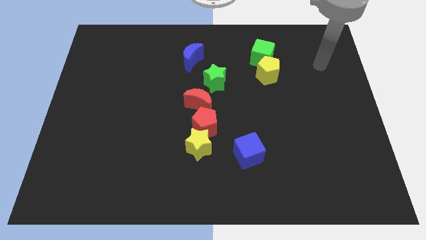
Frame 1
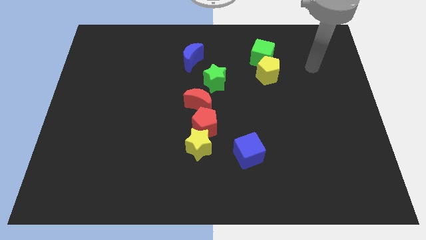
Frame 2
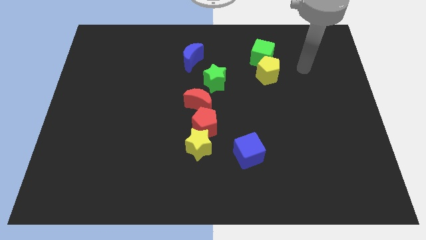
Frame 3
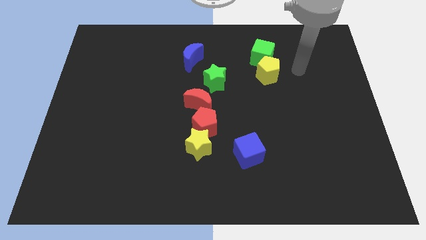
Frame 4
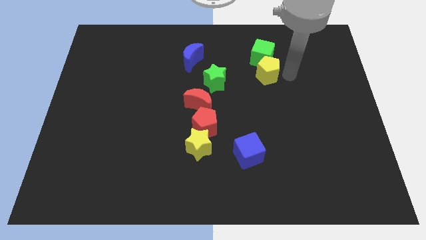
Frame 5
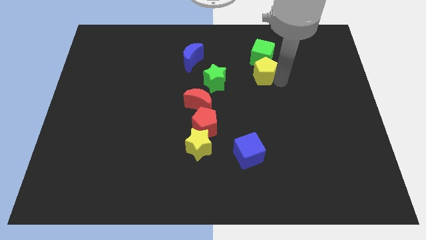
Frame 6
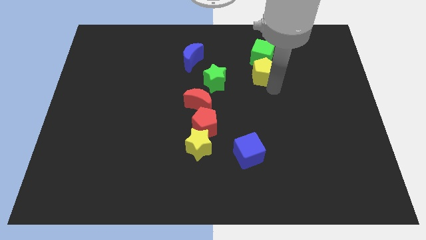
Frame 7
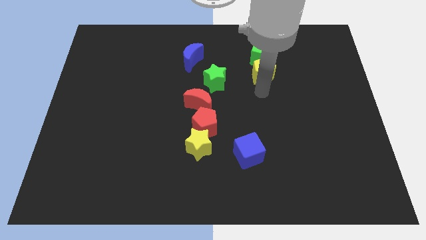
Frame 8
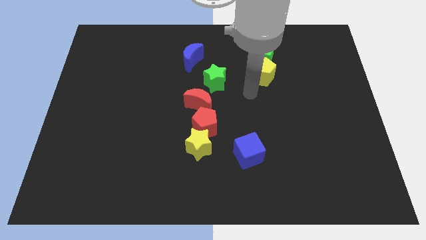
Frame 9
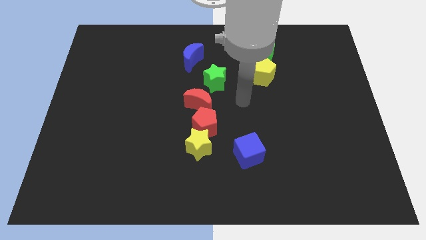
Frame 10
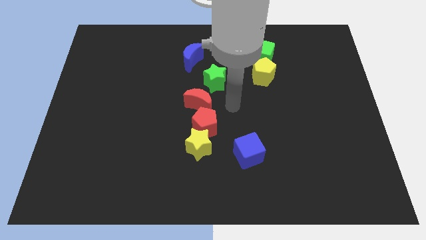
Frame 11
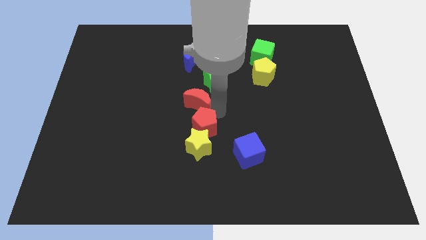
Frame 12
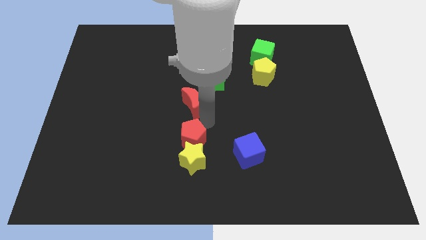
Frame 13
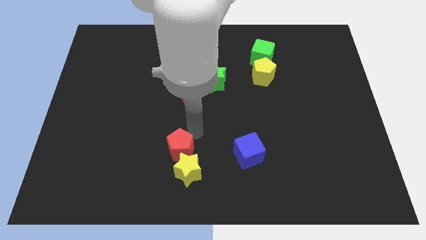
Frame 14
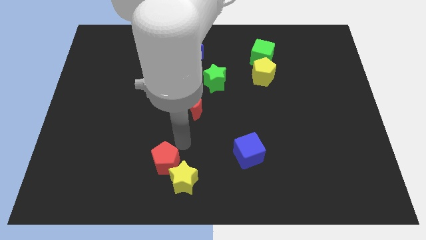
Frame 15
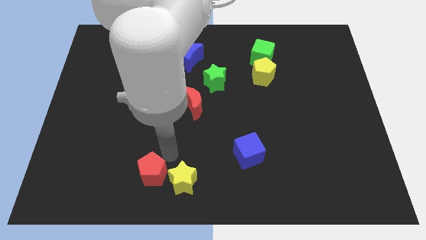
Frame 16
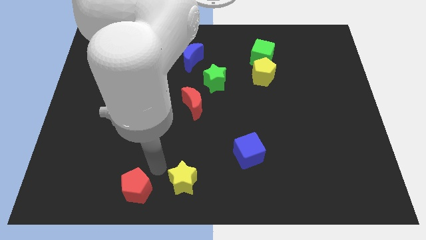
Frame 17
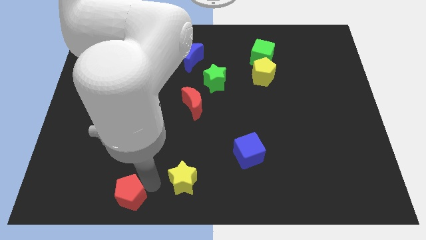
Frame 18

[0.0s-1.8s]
move the yellow star away from the red pentagon

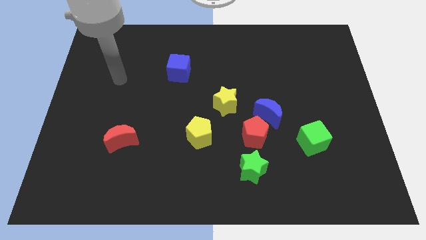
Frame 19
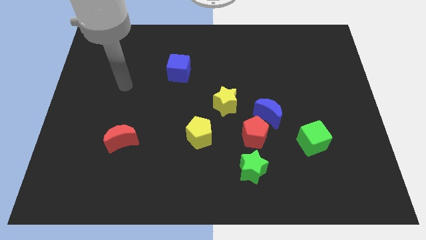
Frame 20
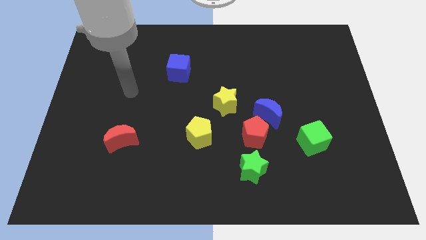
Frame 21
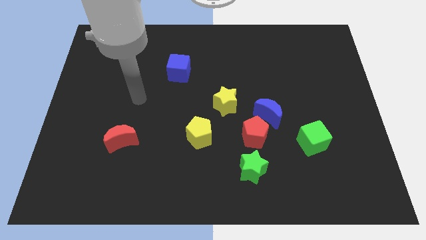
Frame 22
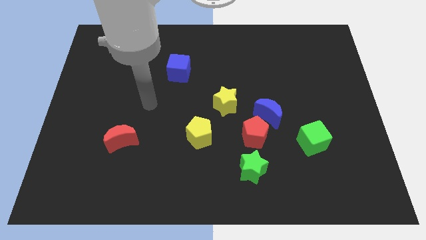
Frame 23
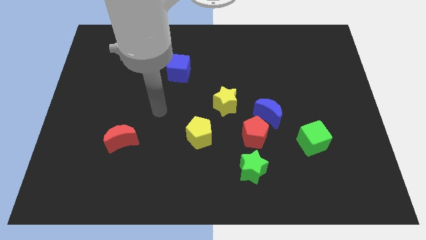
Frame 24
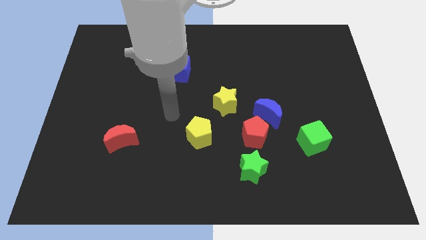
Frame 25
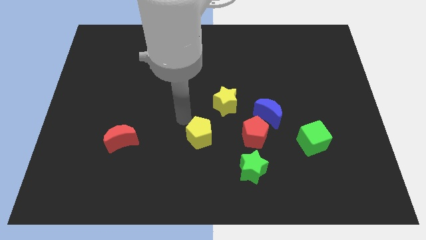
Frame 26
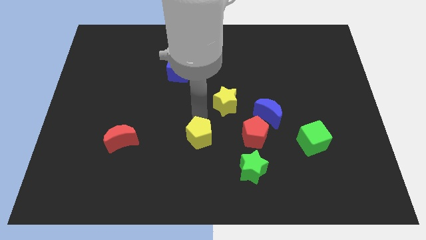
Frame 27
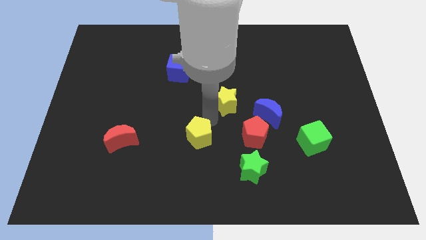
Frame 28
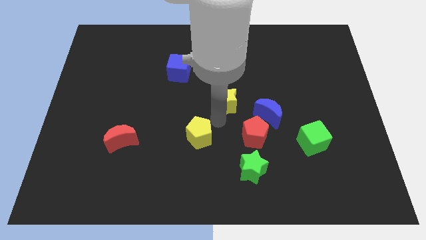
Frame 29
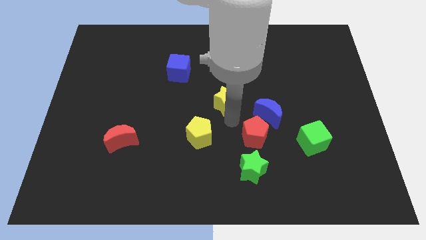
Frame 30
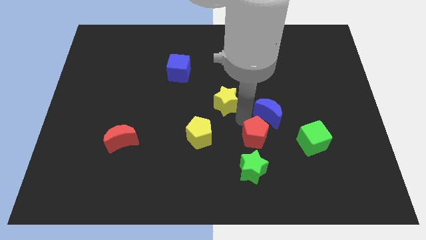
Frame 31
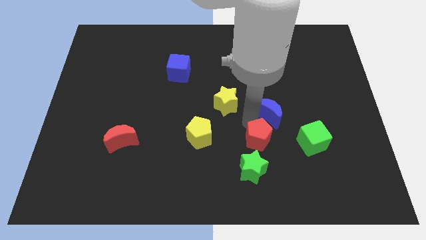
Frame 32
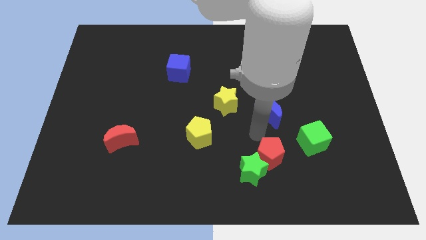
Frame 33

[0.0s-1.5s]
pull the blue moon apart from the red pentagon

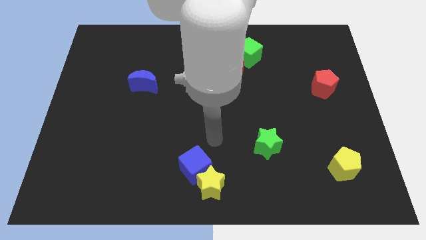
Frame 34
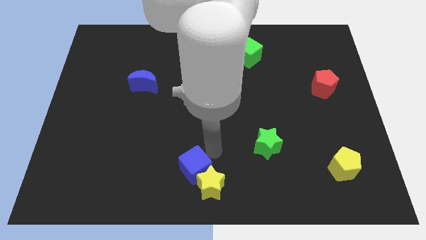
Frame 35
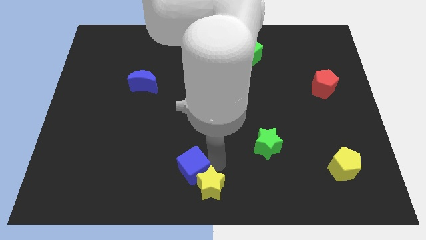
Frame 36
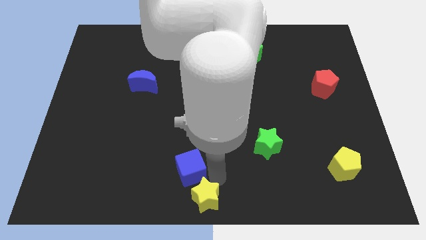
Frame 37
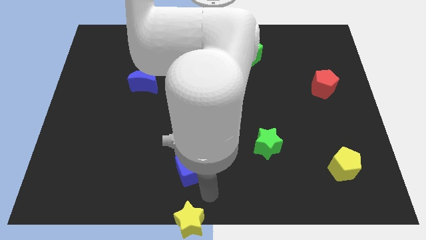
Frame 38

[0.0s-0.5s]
pull the blue cube apart from the yellow star

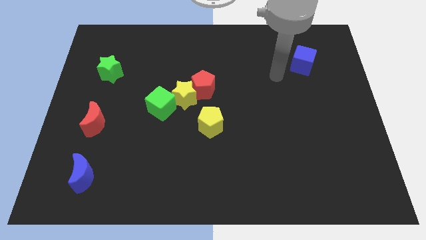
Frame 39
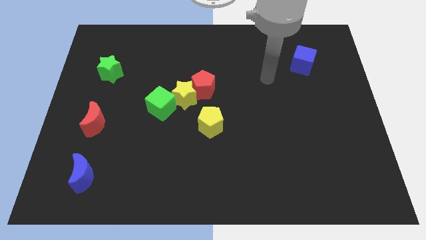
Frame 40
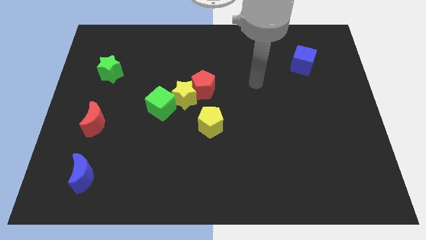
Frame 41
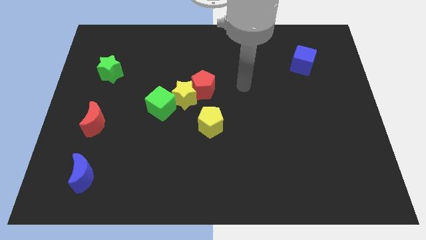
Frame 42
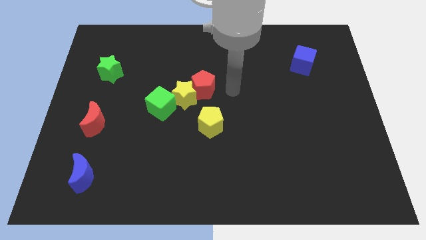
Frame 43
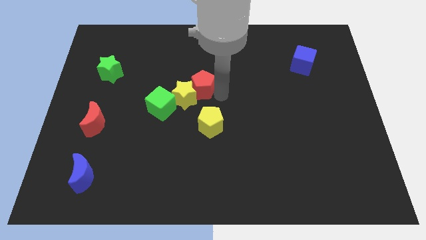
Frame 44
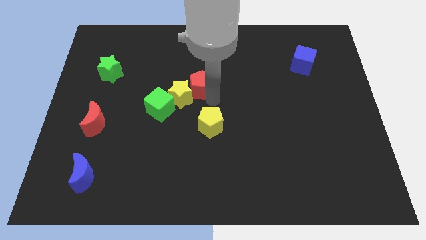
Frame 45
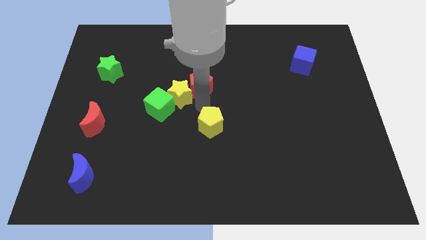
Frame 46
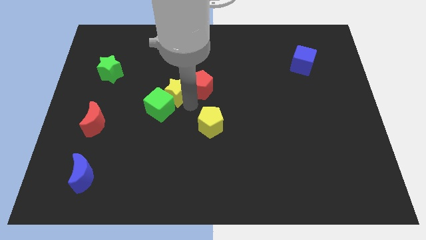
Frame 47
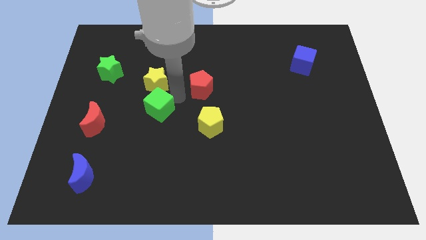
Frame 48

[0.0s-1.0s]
separate the red pentagon from the yellow star

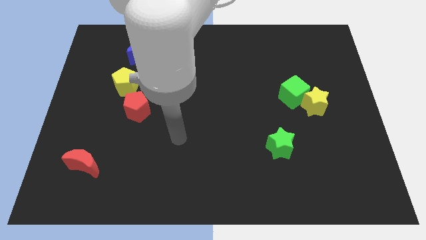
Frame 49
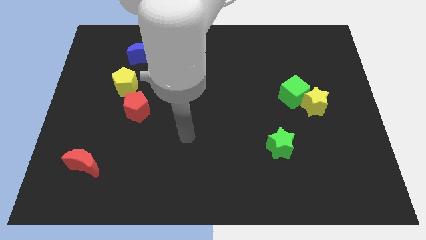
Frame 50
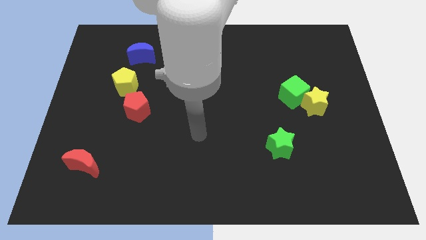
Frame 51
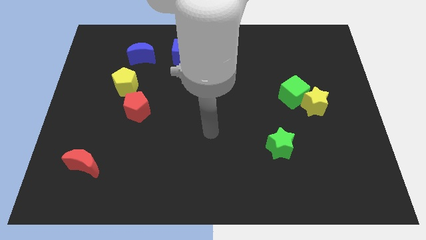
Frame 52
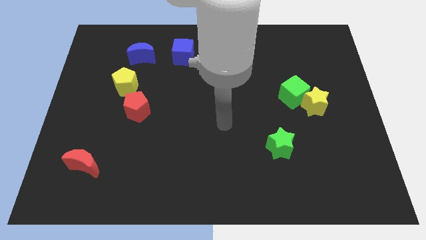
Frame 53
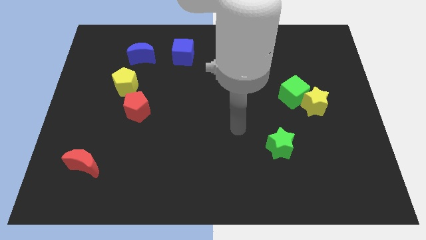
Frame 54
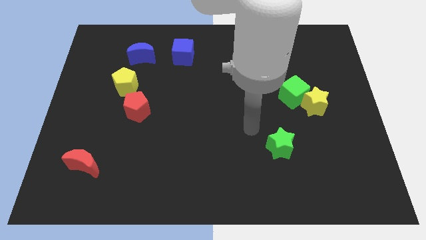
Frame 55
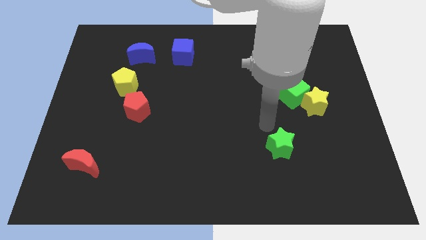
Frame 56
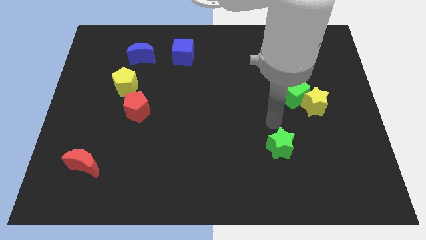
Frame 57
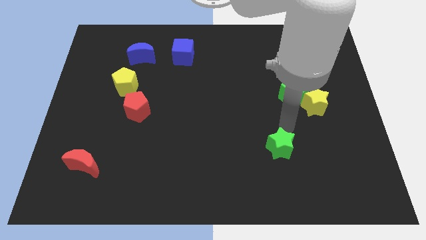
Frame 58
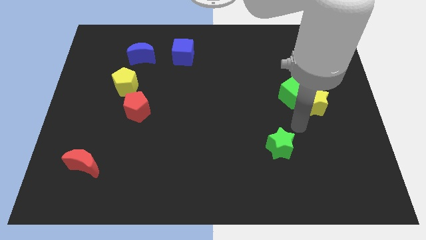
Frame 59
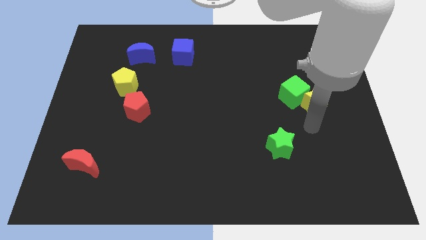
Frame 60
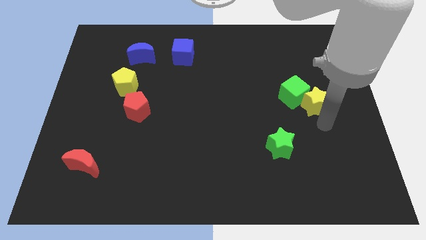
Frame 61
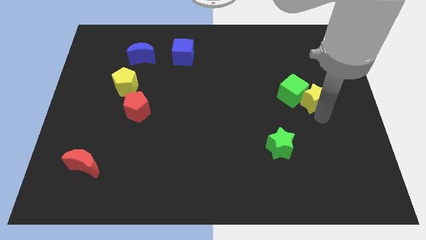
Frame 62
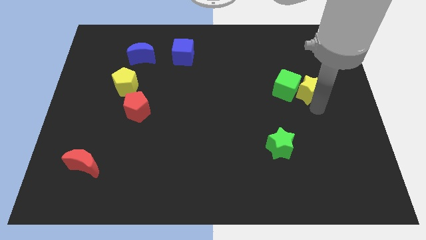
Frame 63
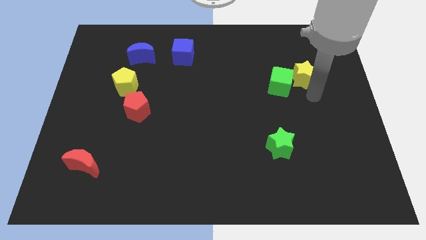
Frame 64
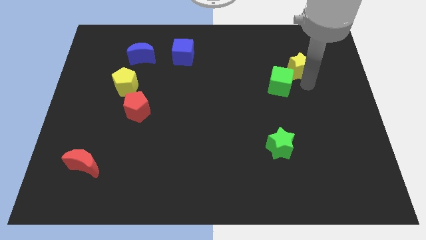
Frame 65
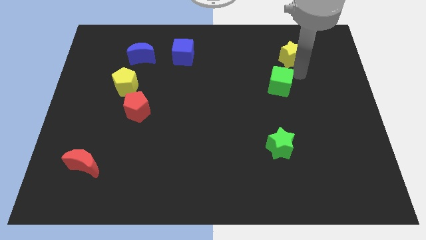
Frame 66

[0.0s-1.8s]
move the green cube away from the yellow star

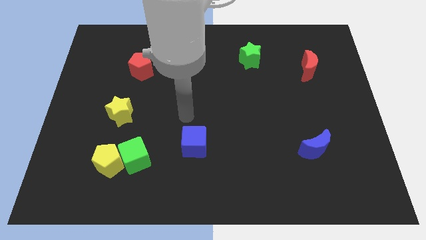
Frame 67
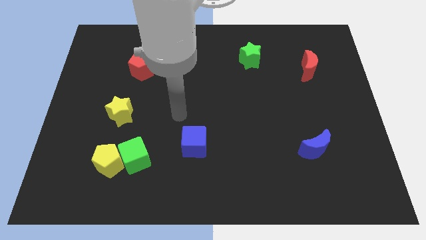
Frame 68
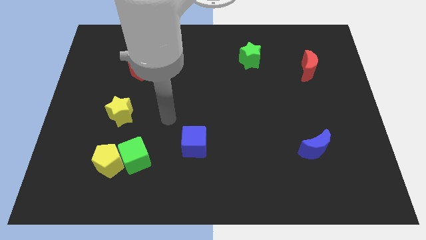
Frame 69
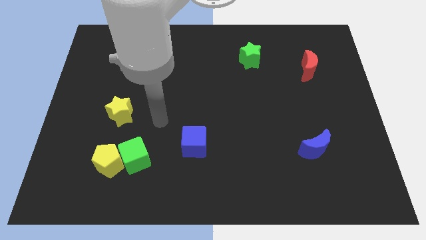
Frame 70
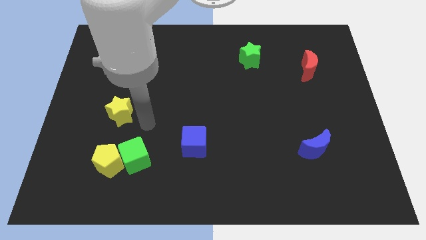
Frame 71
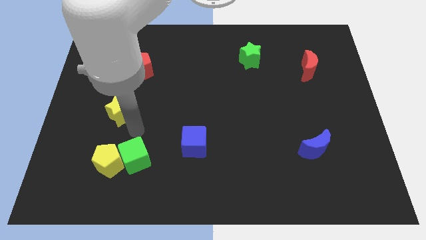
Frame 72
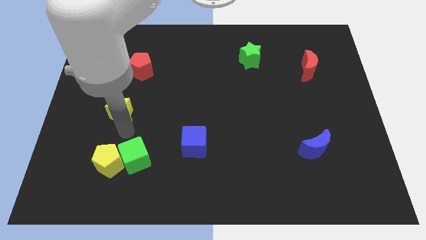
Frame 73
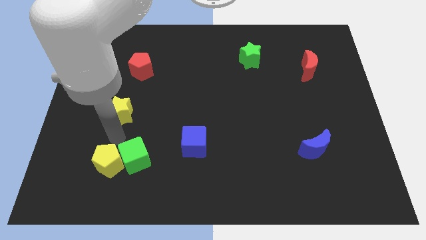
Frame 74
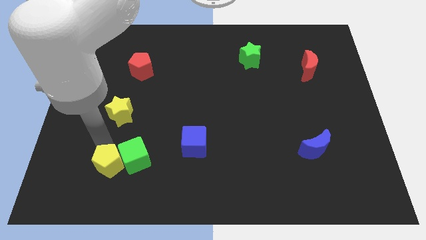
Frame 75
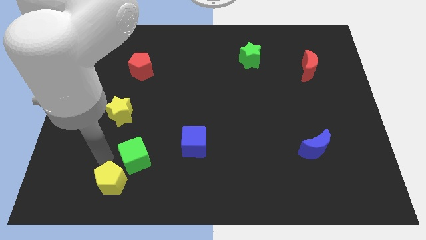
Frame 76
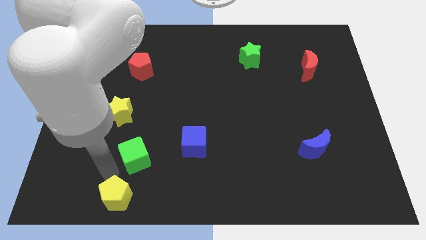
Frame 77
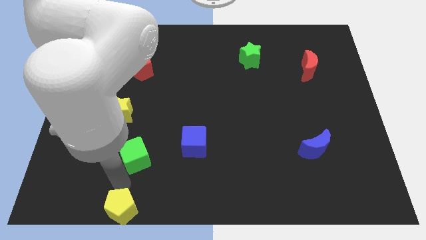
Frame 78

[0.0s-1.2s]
move the green cube away from the yellow pentagon

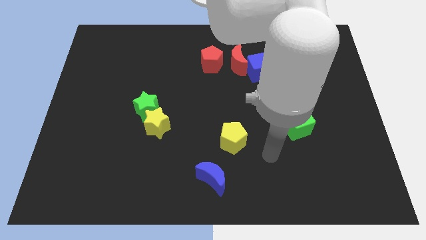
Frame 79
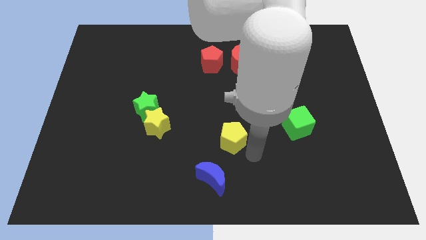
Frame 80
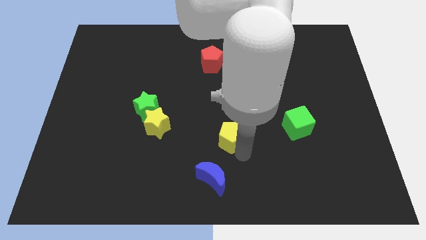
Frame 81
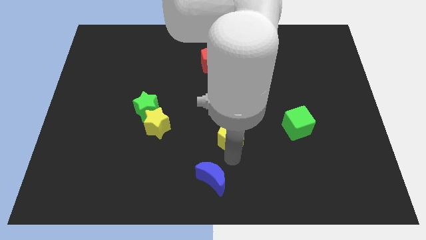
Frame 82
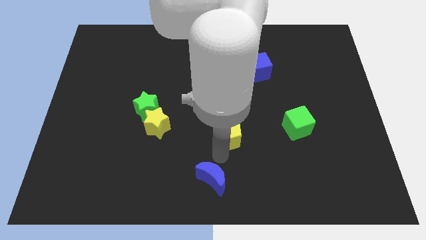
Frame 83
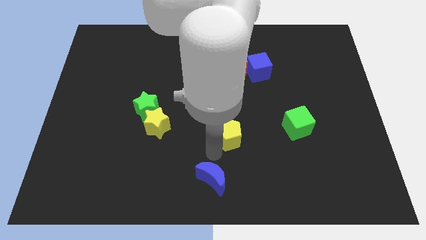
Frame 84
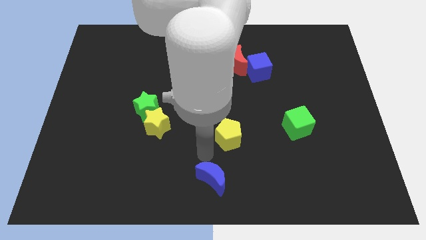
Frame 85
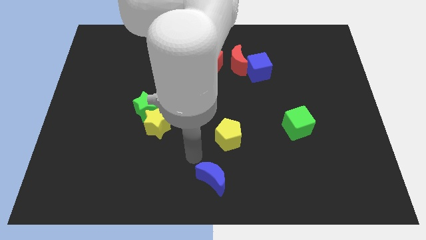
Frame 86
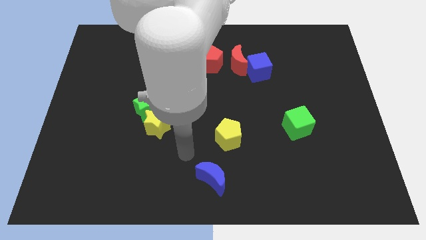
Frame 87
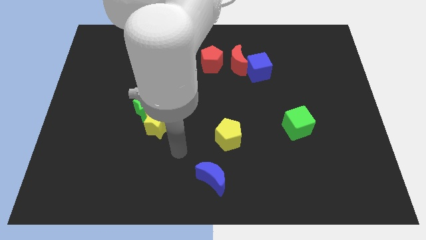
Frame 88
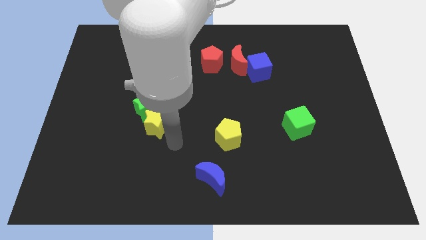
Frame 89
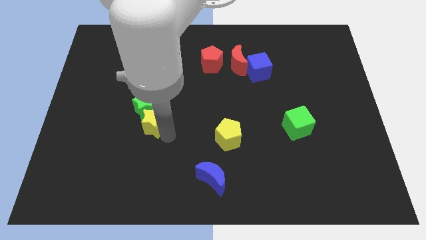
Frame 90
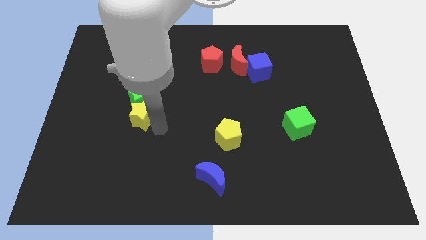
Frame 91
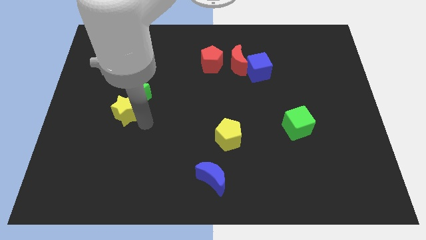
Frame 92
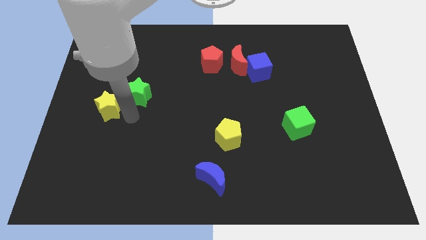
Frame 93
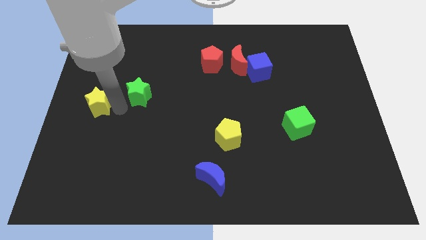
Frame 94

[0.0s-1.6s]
pull the green star apart from the yellow star
